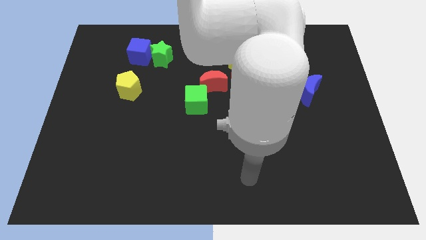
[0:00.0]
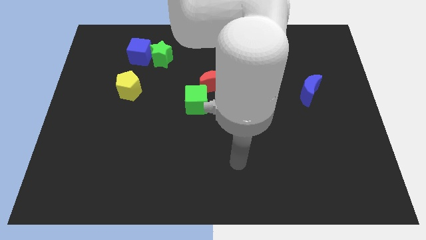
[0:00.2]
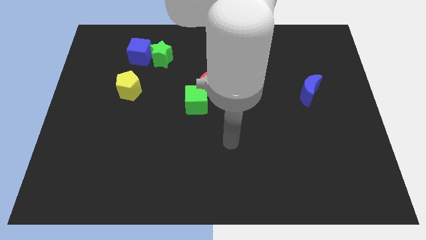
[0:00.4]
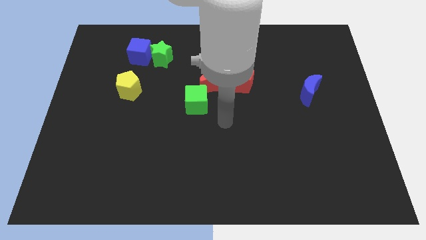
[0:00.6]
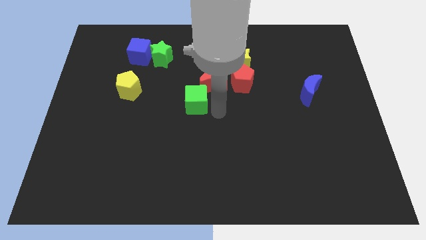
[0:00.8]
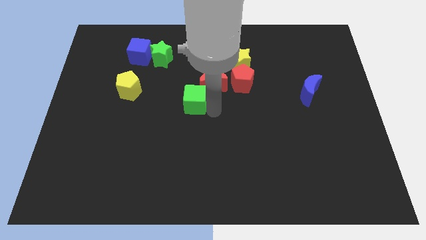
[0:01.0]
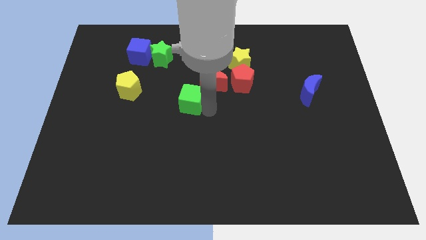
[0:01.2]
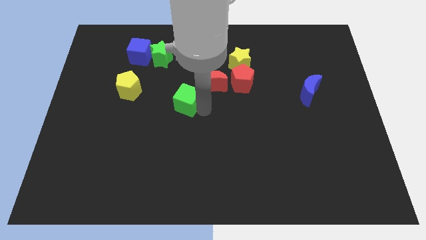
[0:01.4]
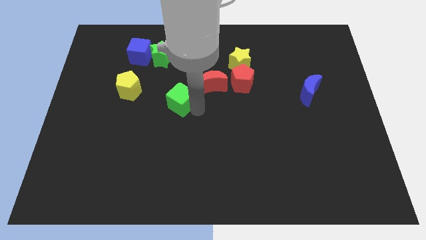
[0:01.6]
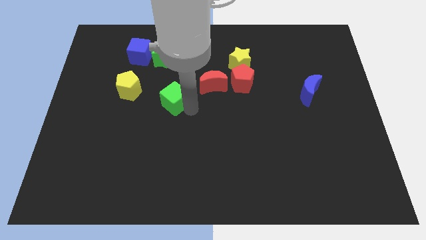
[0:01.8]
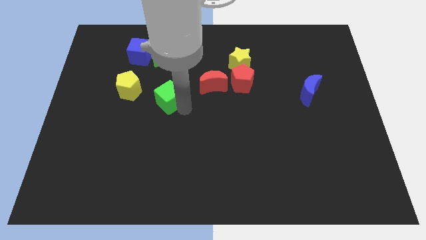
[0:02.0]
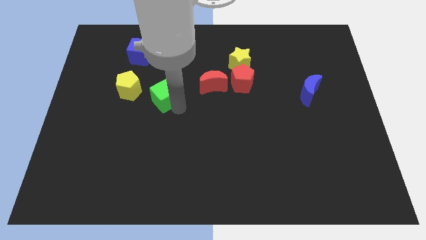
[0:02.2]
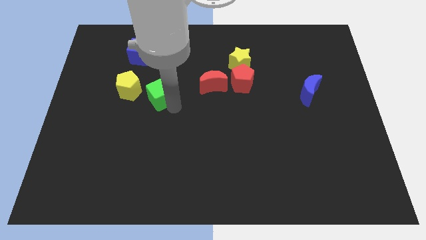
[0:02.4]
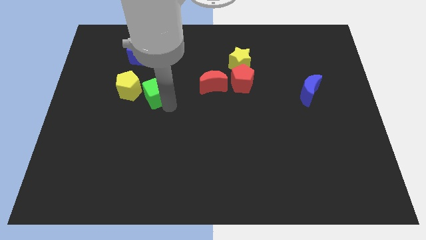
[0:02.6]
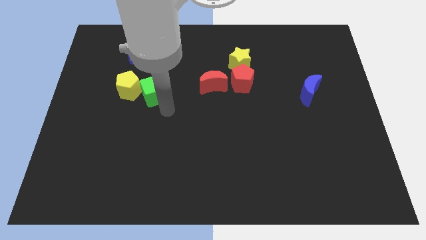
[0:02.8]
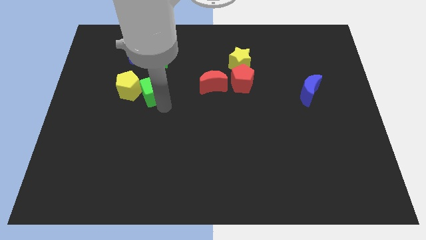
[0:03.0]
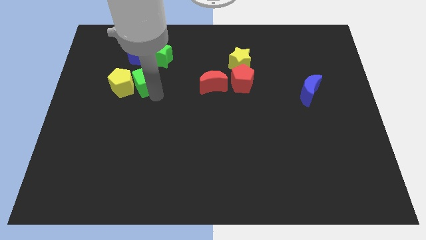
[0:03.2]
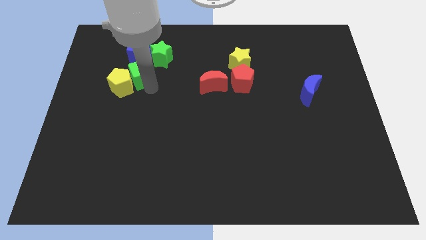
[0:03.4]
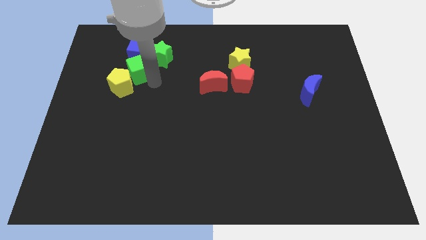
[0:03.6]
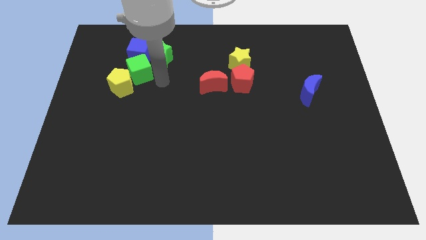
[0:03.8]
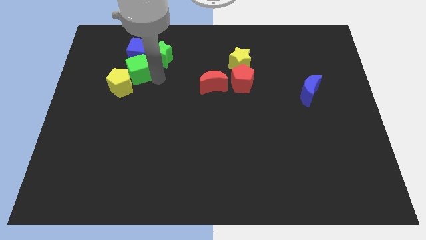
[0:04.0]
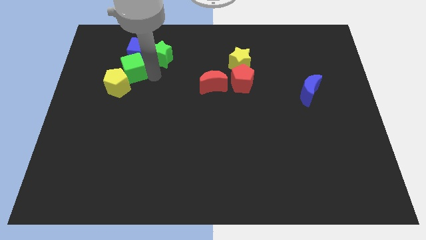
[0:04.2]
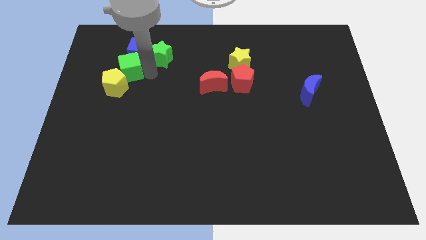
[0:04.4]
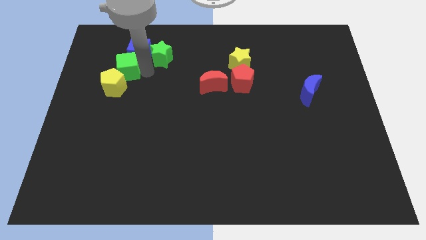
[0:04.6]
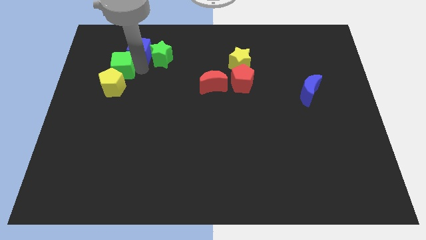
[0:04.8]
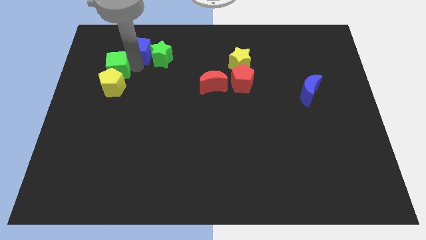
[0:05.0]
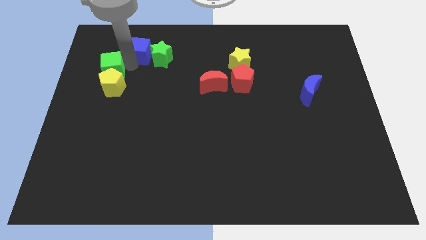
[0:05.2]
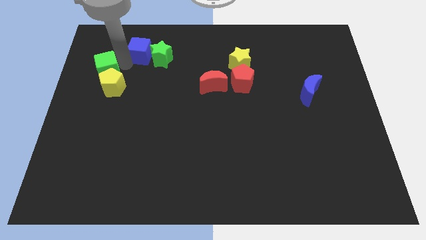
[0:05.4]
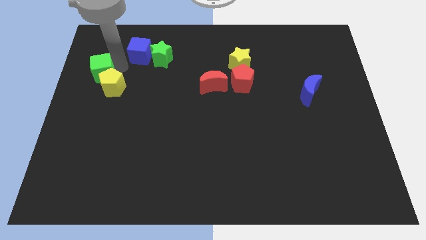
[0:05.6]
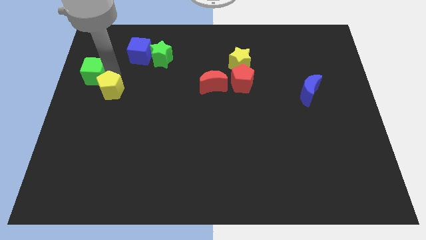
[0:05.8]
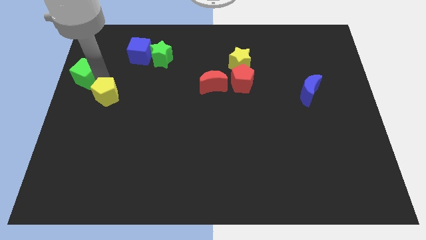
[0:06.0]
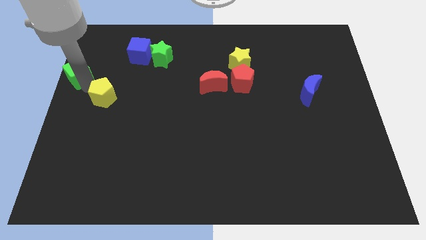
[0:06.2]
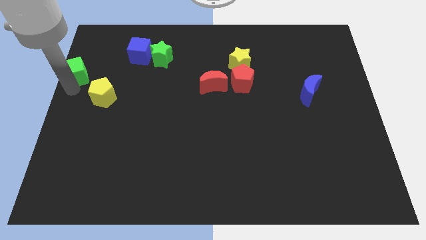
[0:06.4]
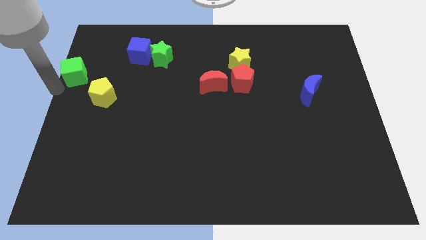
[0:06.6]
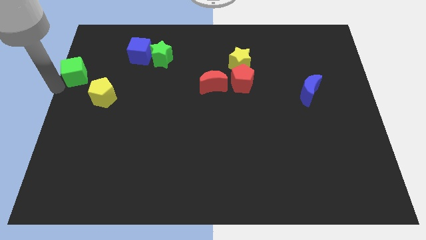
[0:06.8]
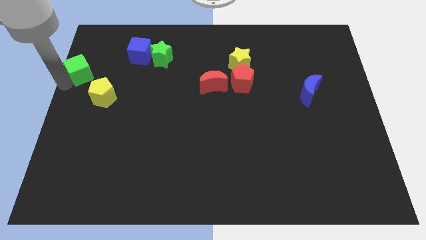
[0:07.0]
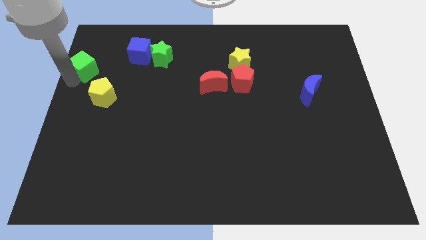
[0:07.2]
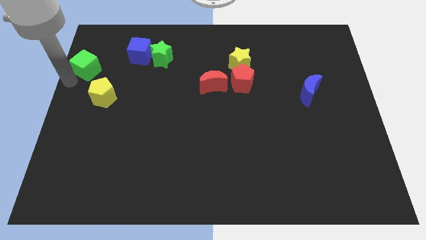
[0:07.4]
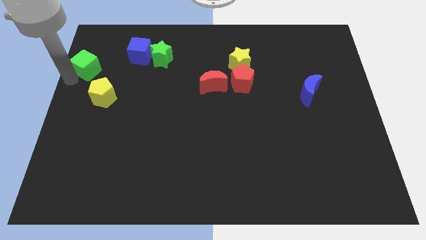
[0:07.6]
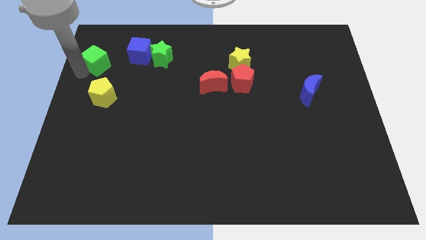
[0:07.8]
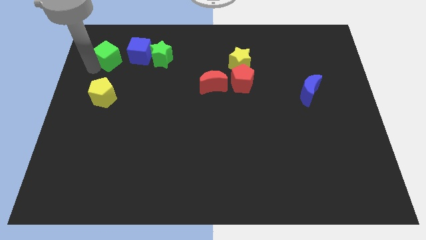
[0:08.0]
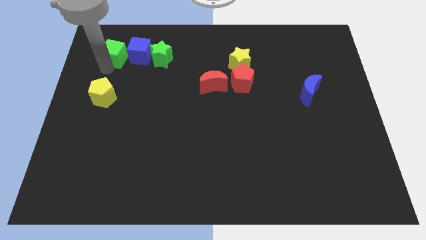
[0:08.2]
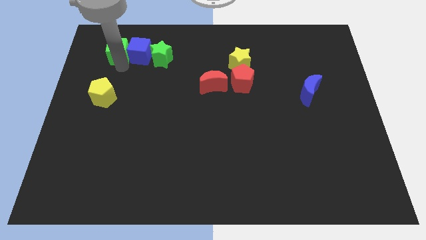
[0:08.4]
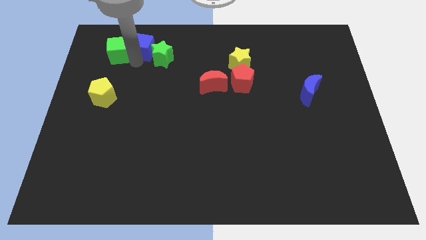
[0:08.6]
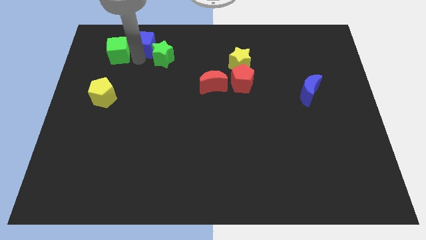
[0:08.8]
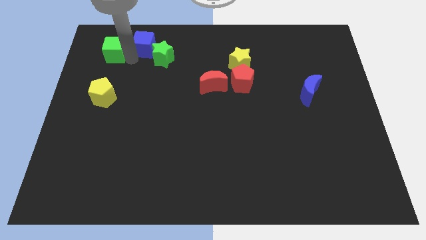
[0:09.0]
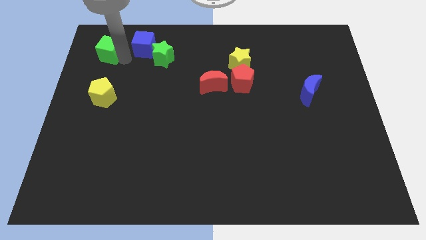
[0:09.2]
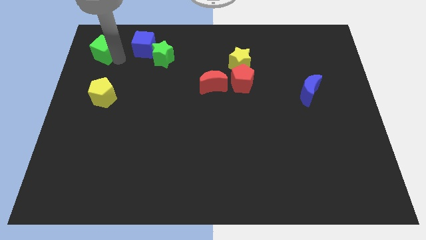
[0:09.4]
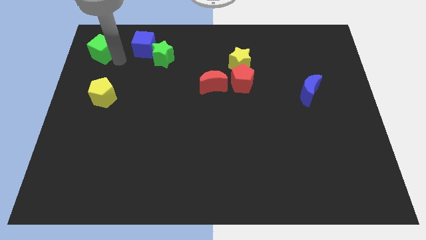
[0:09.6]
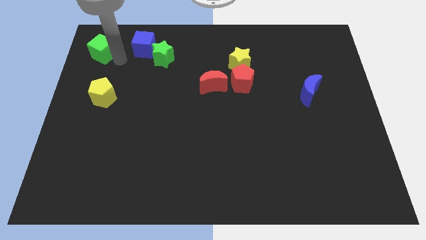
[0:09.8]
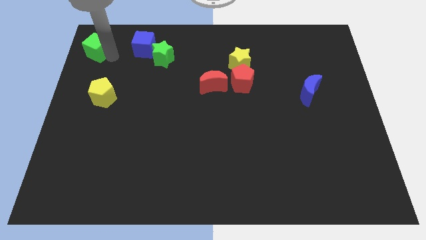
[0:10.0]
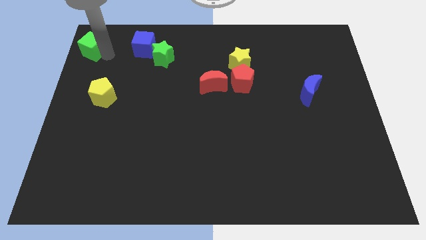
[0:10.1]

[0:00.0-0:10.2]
put the green cube to the top left of the board
